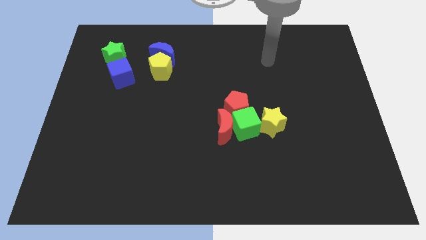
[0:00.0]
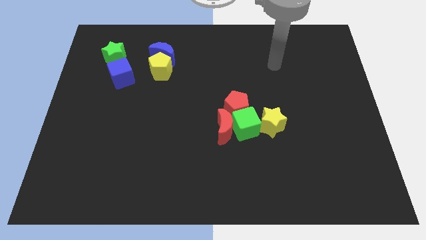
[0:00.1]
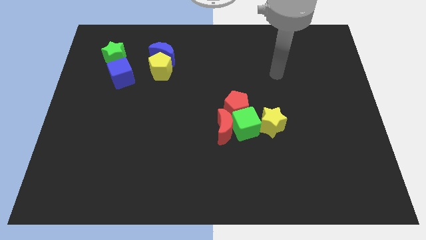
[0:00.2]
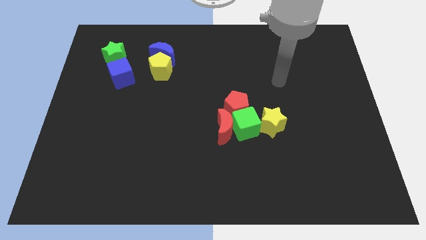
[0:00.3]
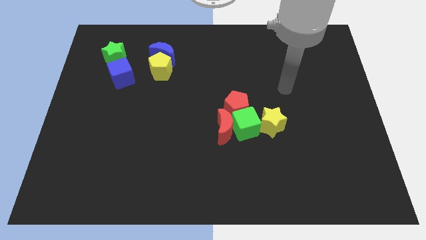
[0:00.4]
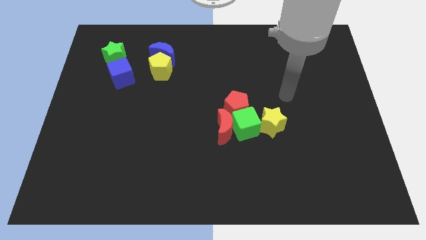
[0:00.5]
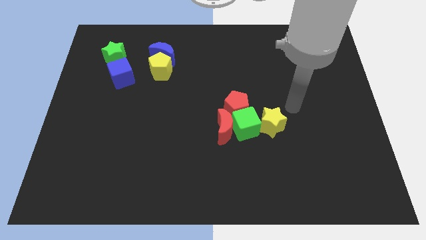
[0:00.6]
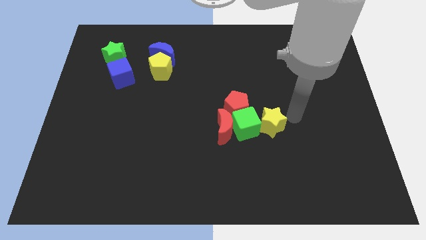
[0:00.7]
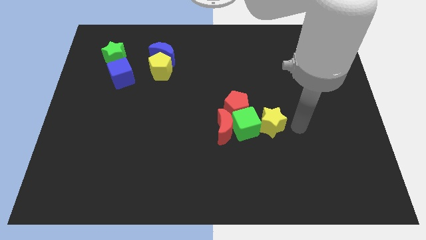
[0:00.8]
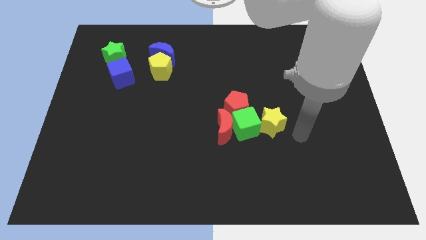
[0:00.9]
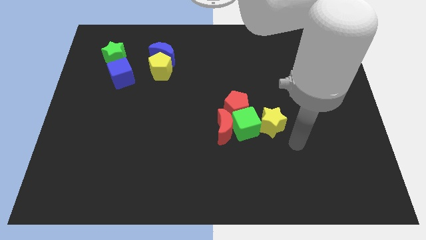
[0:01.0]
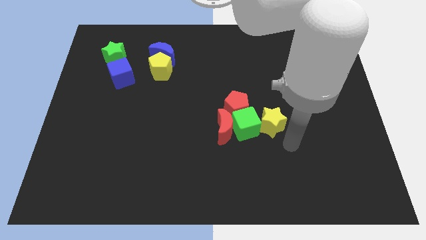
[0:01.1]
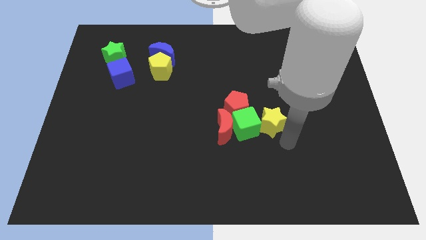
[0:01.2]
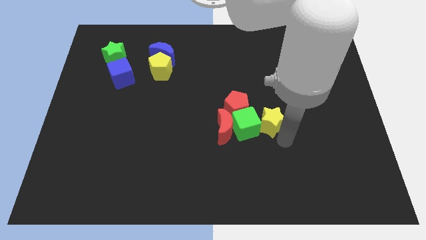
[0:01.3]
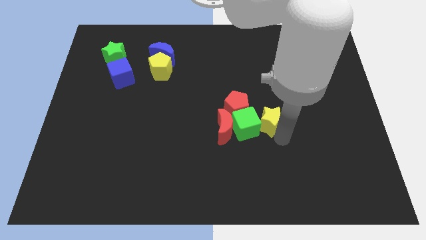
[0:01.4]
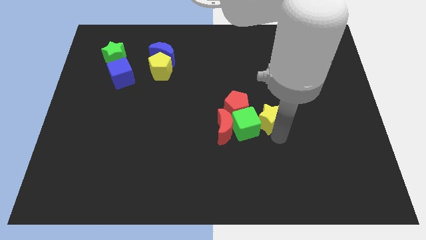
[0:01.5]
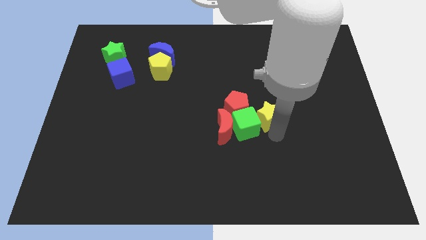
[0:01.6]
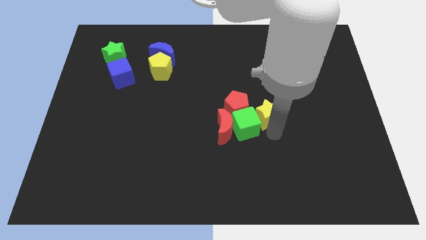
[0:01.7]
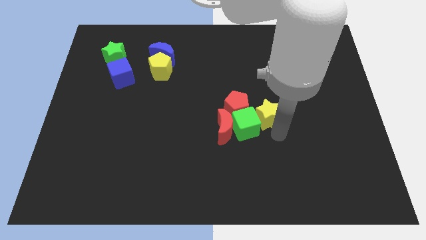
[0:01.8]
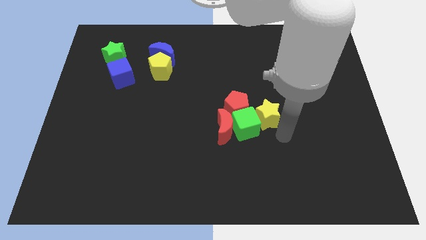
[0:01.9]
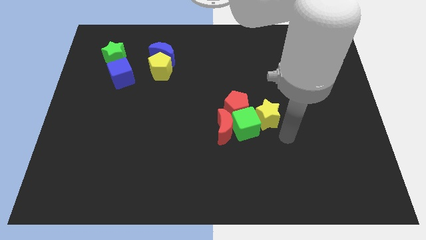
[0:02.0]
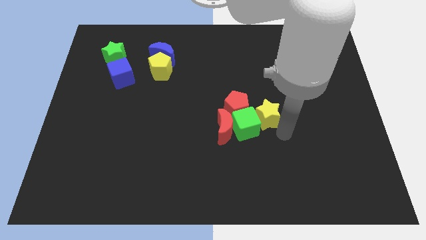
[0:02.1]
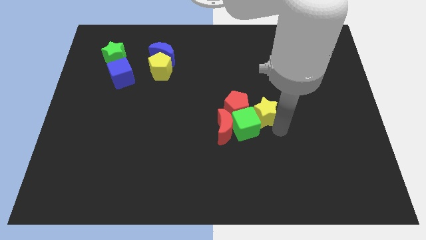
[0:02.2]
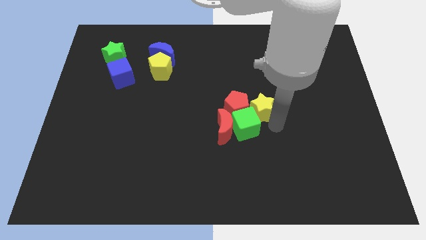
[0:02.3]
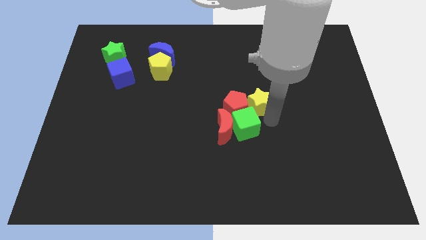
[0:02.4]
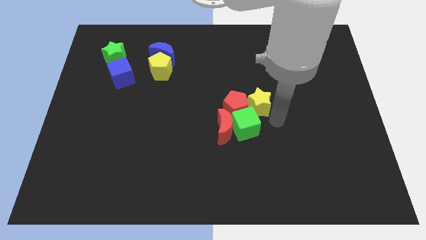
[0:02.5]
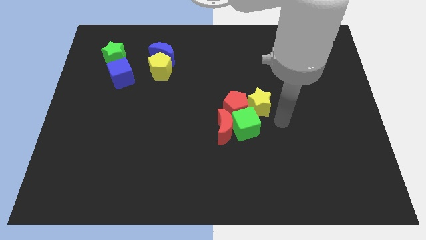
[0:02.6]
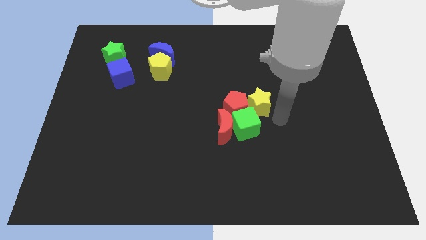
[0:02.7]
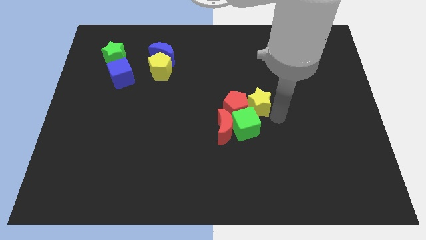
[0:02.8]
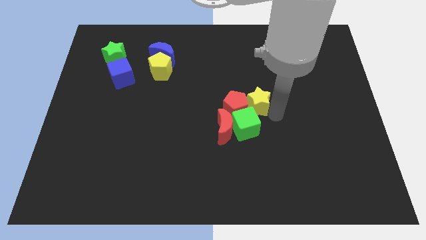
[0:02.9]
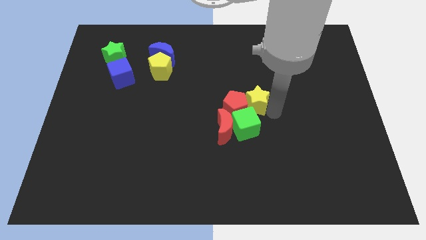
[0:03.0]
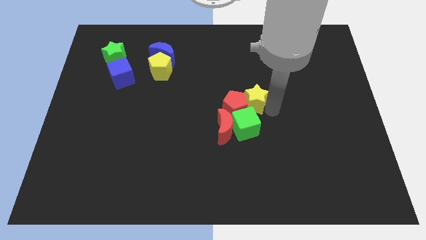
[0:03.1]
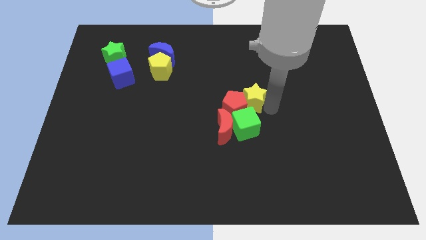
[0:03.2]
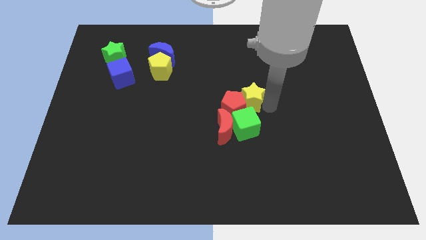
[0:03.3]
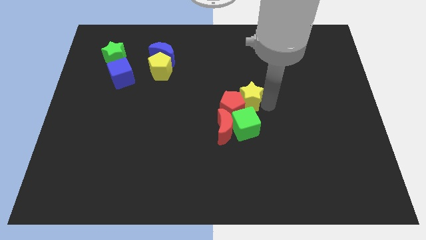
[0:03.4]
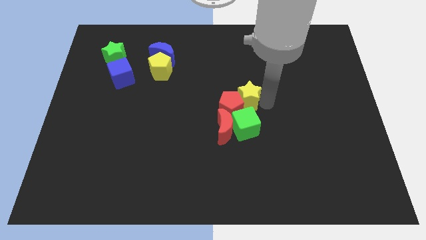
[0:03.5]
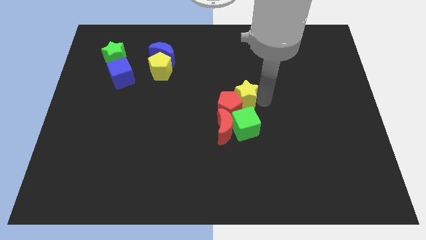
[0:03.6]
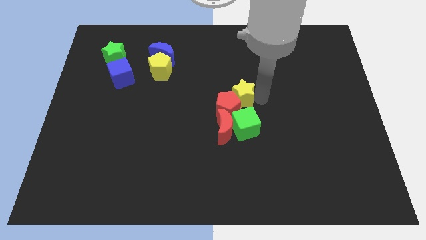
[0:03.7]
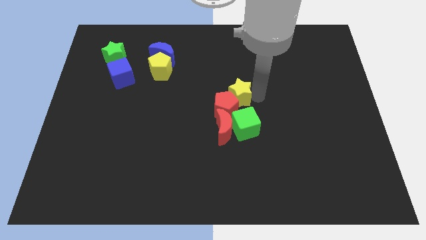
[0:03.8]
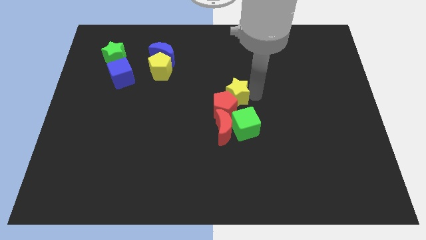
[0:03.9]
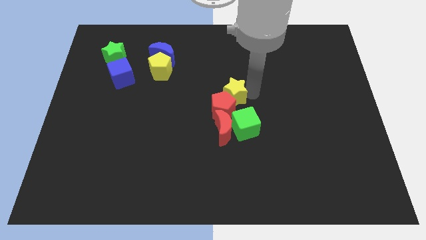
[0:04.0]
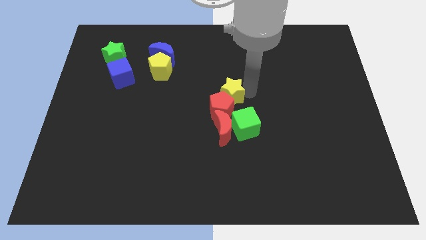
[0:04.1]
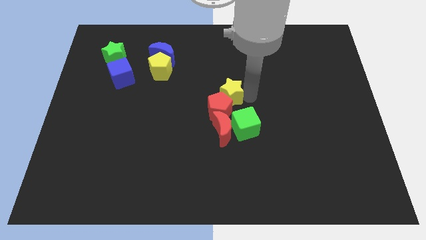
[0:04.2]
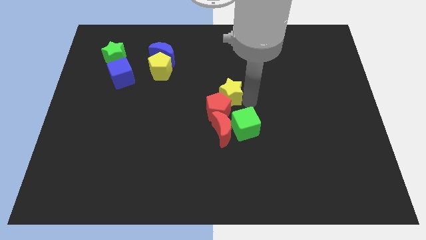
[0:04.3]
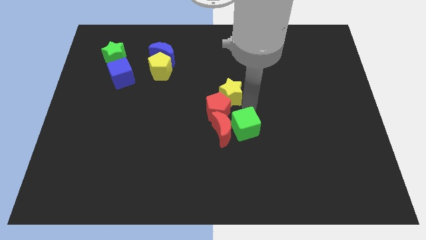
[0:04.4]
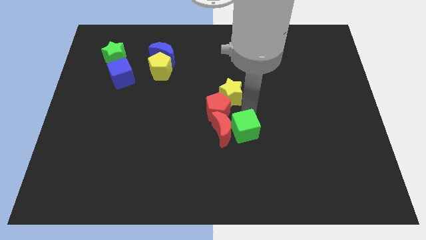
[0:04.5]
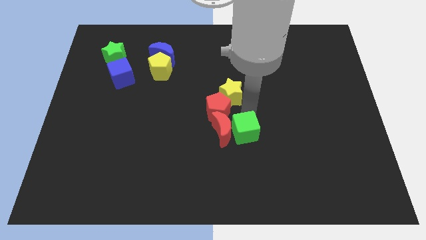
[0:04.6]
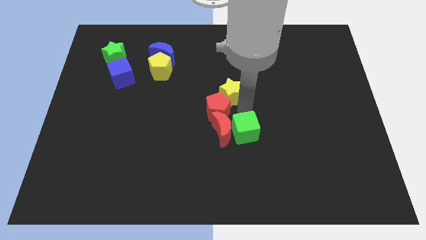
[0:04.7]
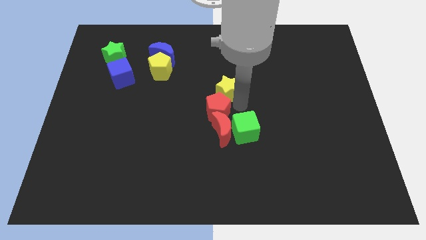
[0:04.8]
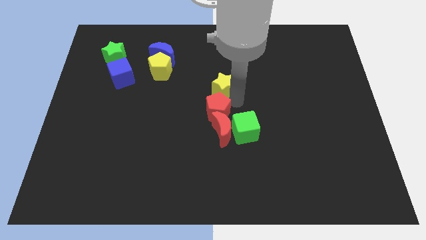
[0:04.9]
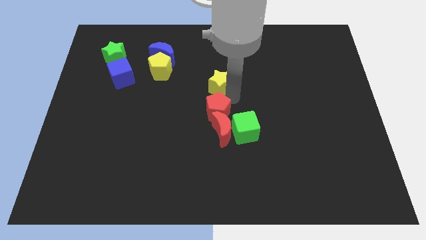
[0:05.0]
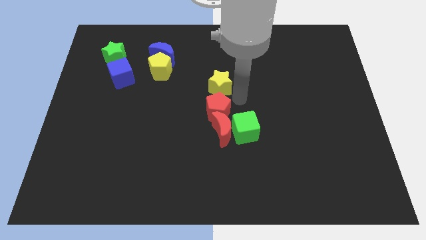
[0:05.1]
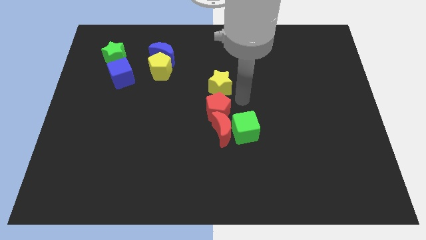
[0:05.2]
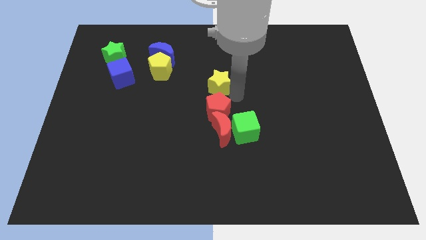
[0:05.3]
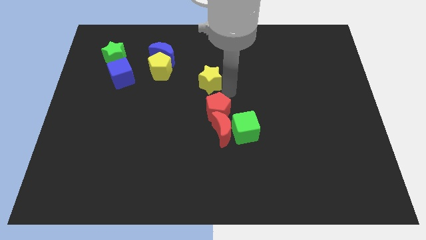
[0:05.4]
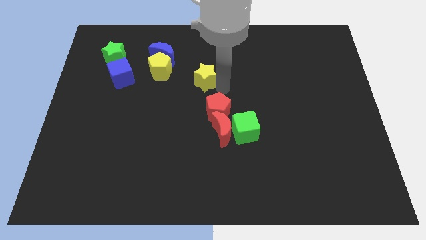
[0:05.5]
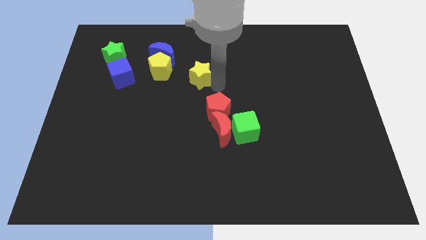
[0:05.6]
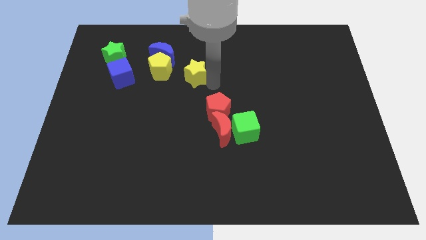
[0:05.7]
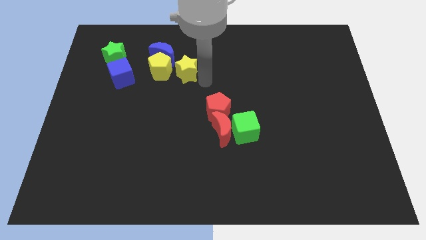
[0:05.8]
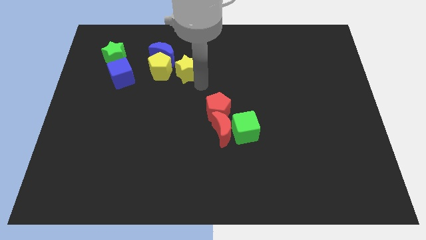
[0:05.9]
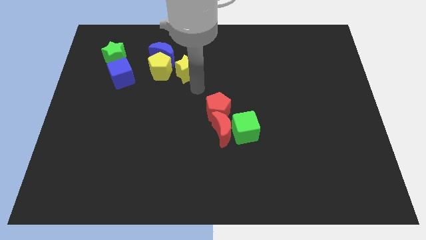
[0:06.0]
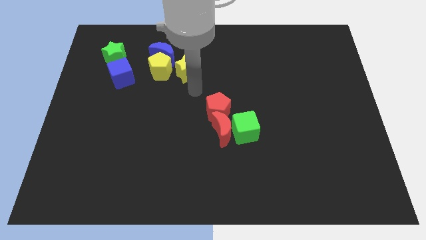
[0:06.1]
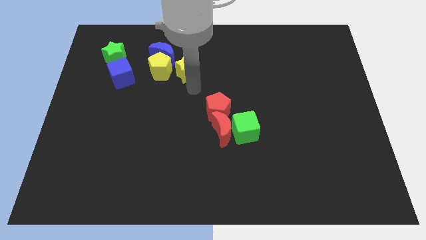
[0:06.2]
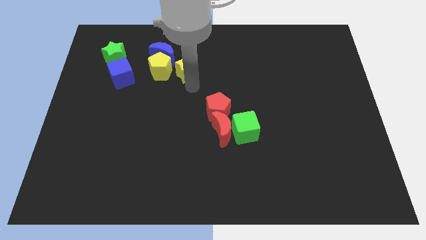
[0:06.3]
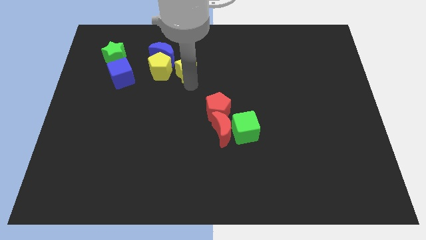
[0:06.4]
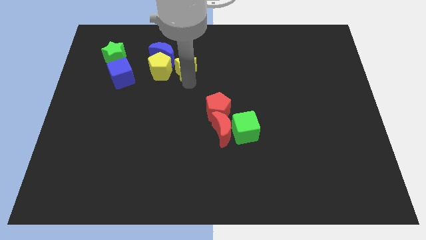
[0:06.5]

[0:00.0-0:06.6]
slide the yellow star to the top right of the yellow pentagon

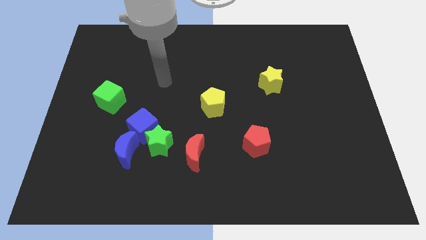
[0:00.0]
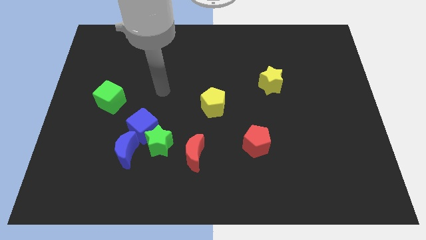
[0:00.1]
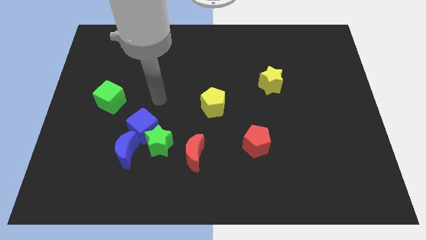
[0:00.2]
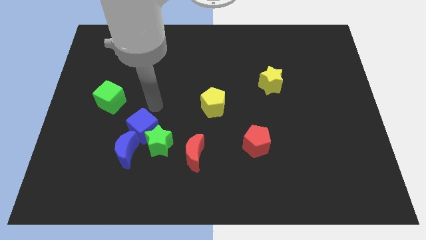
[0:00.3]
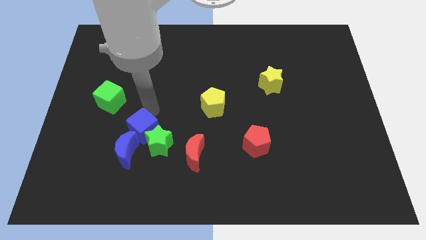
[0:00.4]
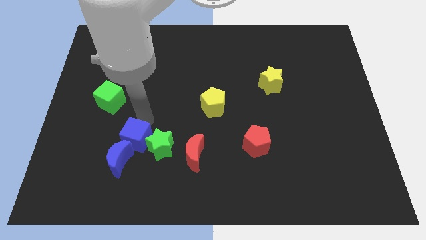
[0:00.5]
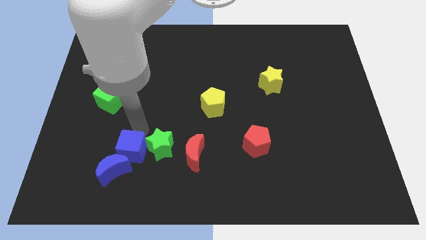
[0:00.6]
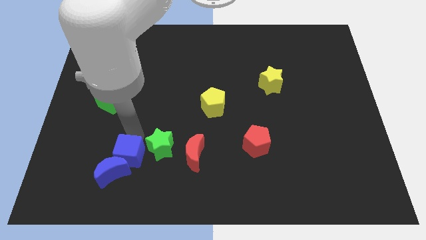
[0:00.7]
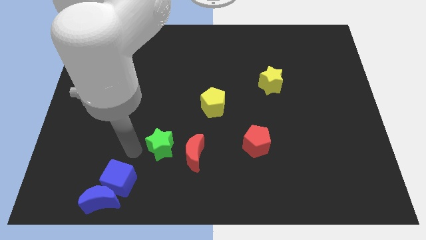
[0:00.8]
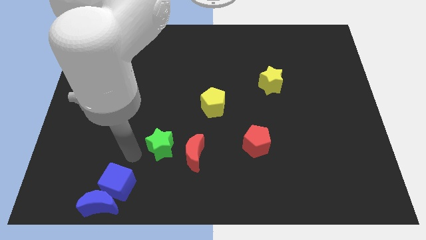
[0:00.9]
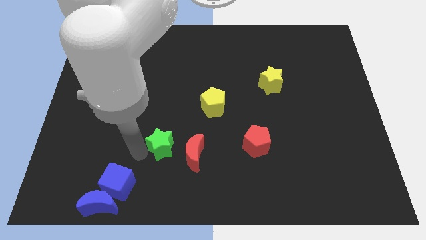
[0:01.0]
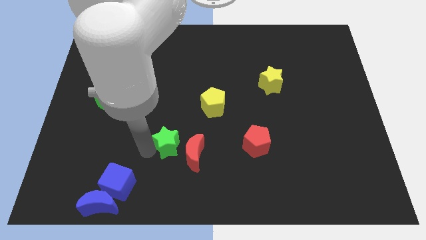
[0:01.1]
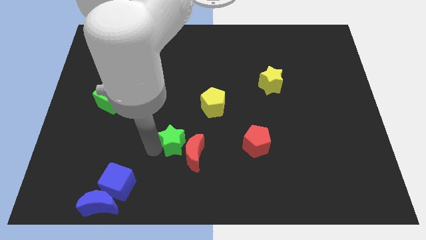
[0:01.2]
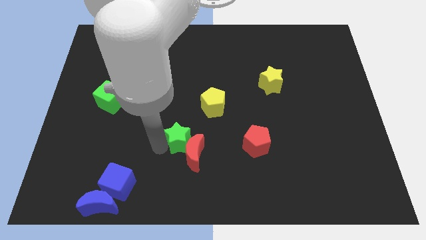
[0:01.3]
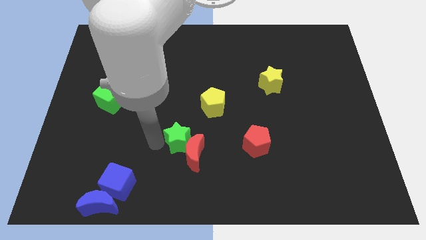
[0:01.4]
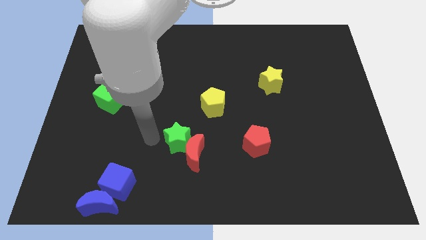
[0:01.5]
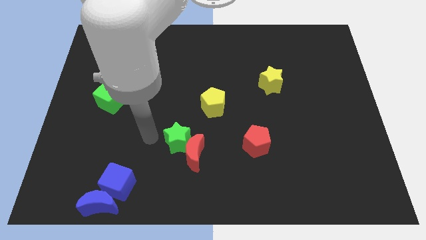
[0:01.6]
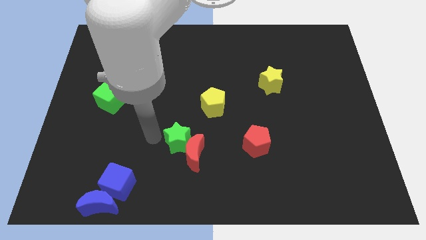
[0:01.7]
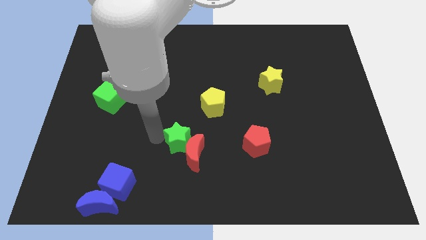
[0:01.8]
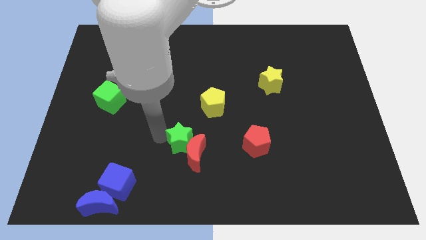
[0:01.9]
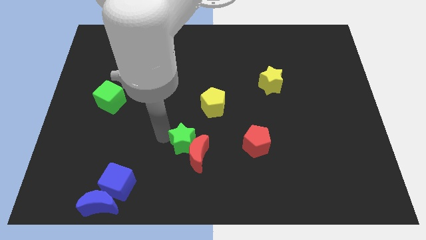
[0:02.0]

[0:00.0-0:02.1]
move the green star just left of the red pentagon
